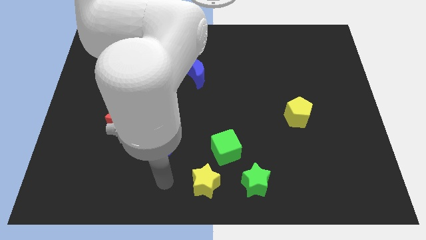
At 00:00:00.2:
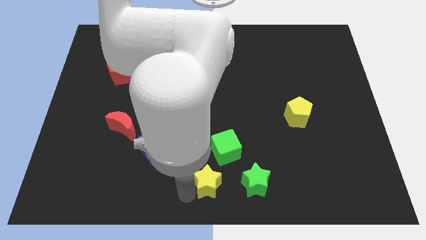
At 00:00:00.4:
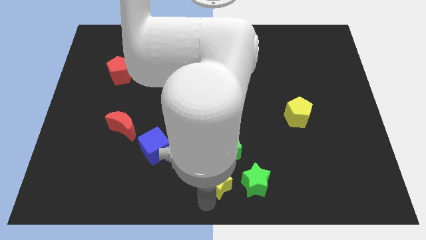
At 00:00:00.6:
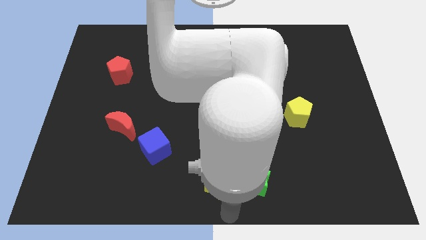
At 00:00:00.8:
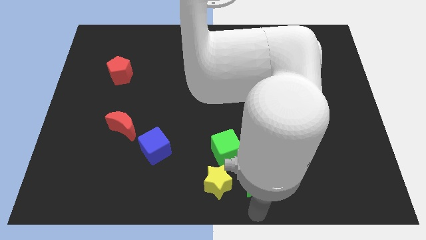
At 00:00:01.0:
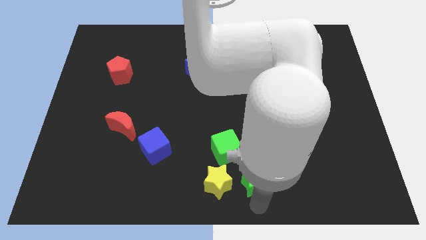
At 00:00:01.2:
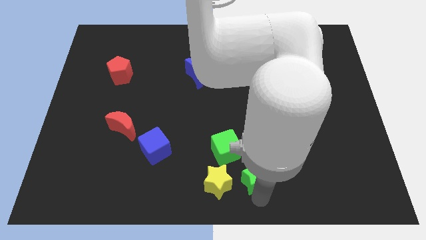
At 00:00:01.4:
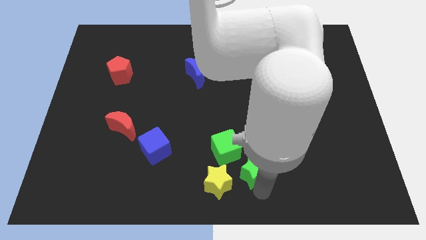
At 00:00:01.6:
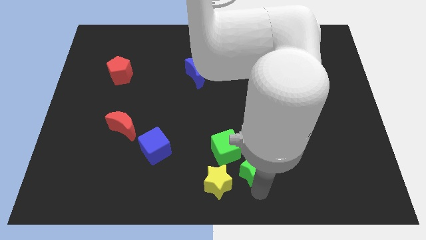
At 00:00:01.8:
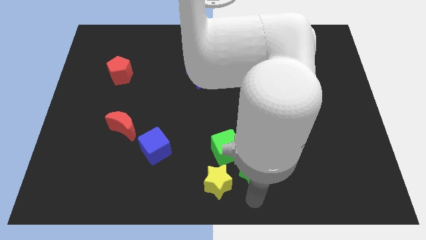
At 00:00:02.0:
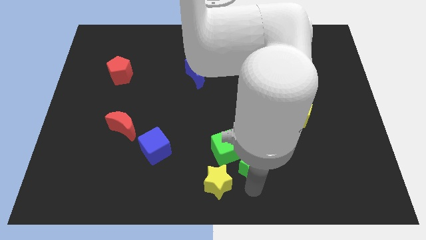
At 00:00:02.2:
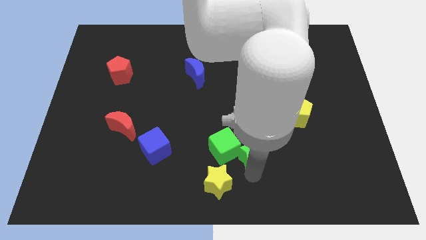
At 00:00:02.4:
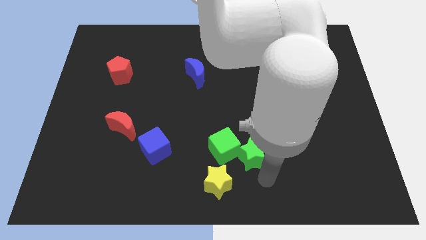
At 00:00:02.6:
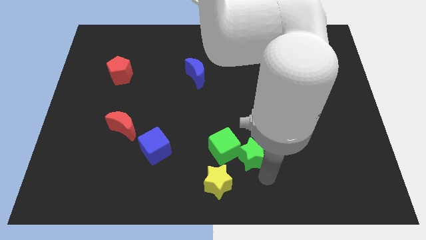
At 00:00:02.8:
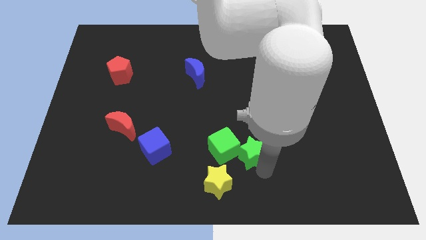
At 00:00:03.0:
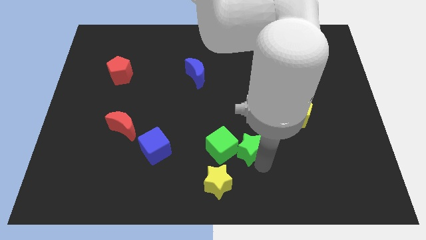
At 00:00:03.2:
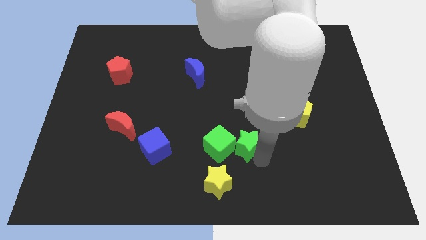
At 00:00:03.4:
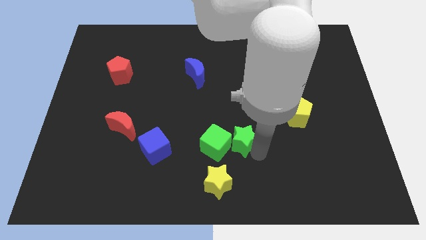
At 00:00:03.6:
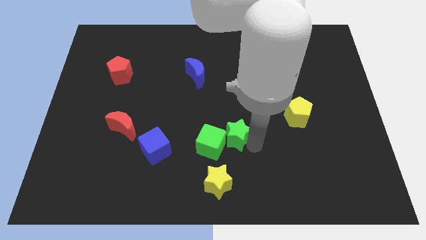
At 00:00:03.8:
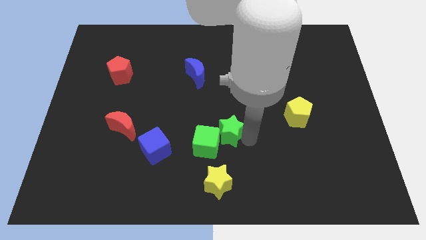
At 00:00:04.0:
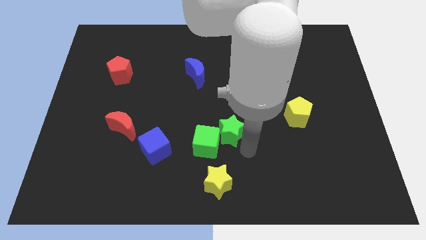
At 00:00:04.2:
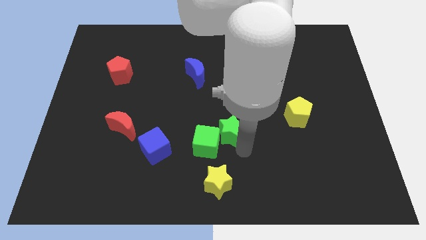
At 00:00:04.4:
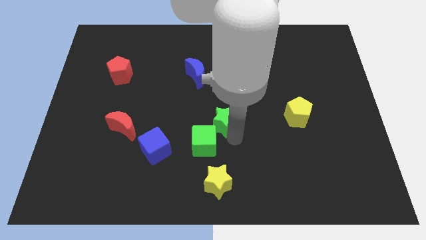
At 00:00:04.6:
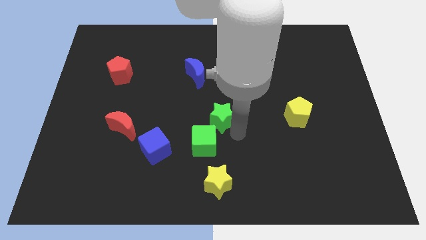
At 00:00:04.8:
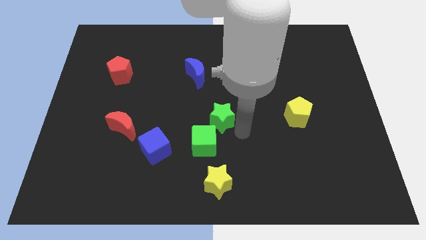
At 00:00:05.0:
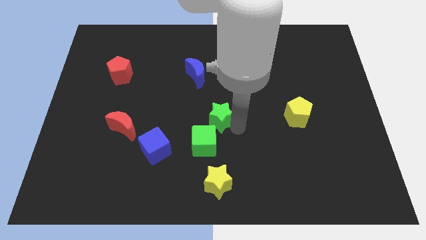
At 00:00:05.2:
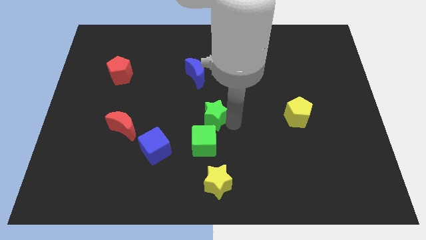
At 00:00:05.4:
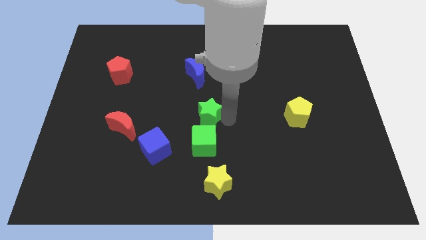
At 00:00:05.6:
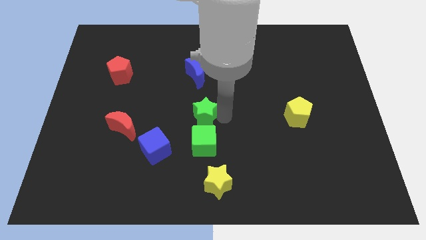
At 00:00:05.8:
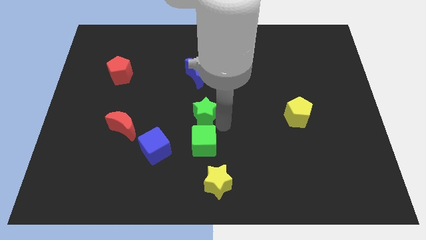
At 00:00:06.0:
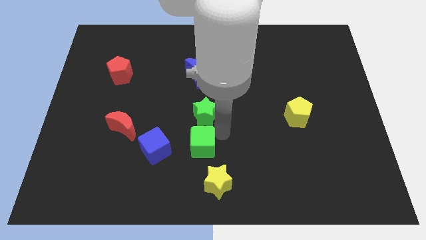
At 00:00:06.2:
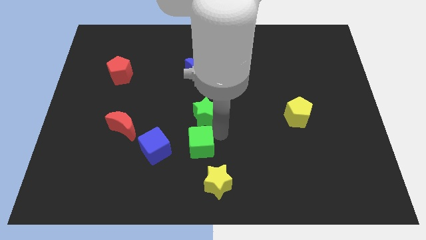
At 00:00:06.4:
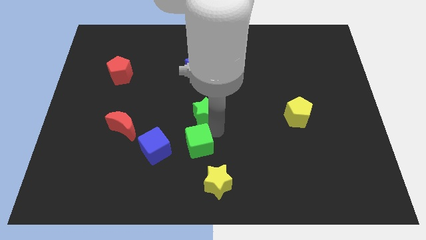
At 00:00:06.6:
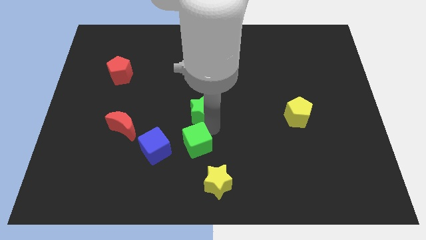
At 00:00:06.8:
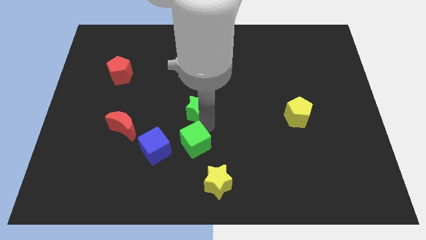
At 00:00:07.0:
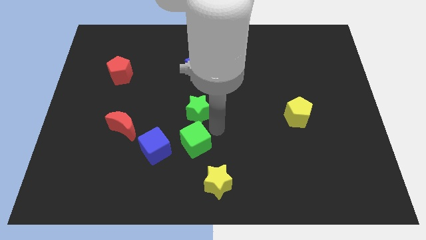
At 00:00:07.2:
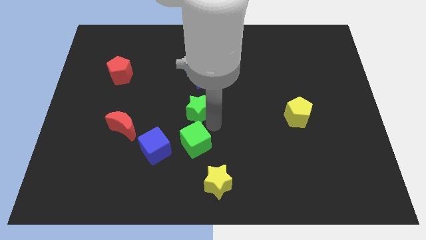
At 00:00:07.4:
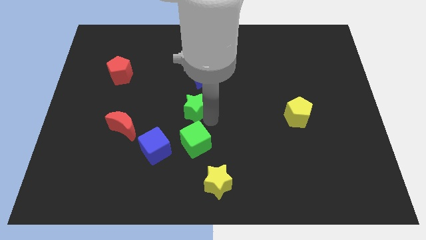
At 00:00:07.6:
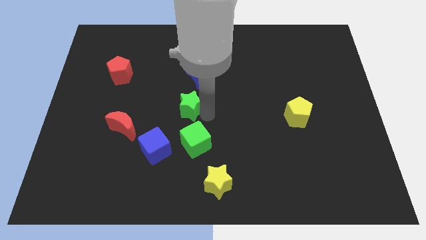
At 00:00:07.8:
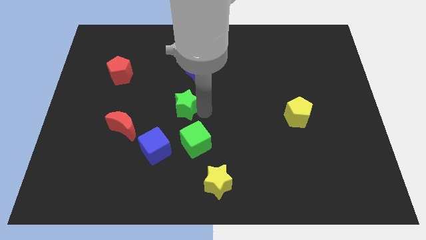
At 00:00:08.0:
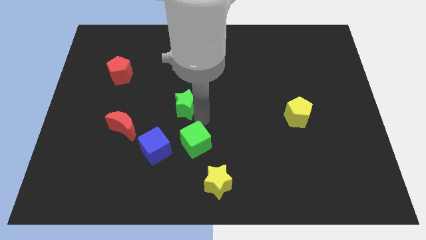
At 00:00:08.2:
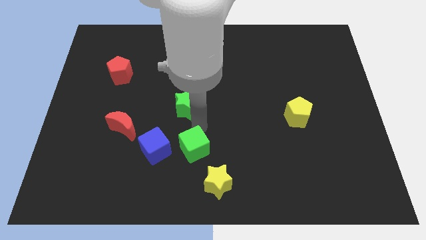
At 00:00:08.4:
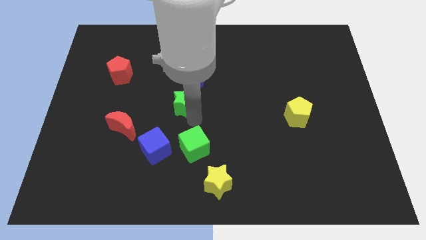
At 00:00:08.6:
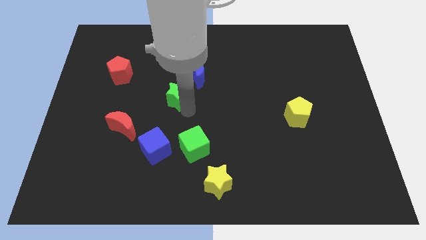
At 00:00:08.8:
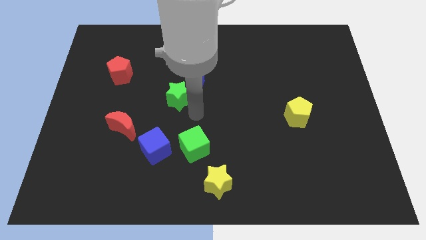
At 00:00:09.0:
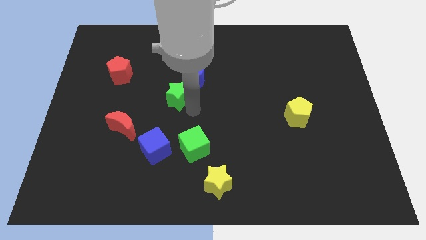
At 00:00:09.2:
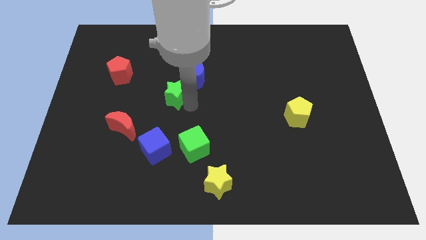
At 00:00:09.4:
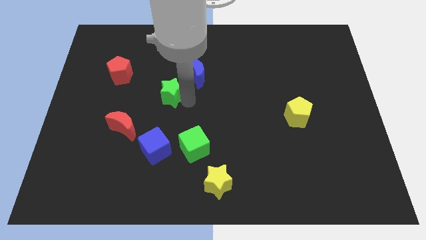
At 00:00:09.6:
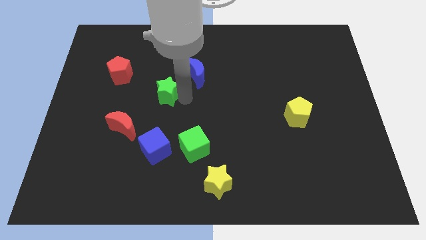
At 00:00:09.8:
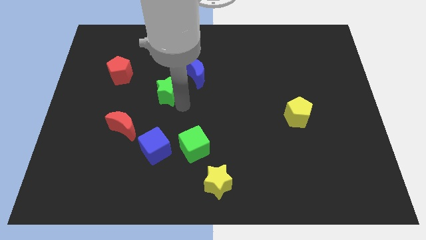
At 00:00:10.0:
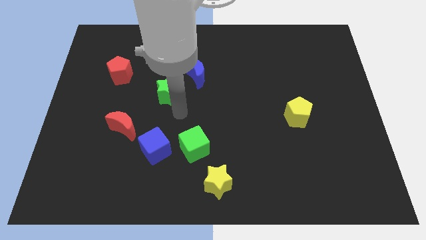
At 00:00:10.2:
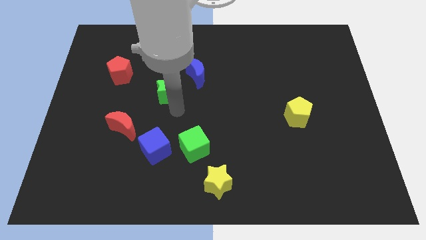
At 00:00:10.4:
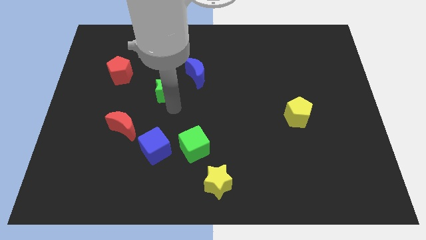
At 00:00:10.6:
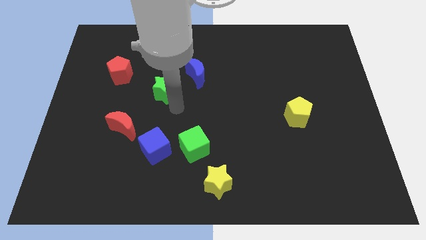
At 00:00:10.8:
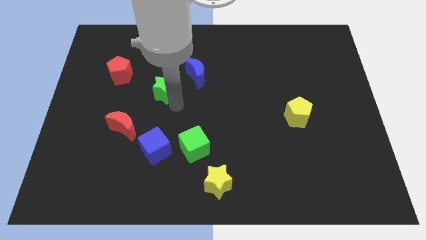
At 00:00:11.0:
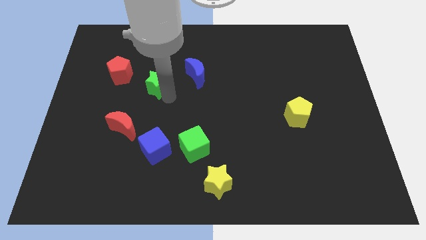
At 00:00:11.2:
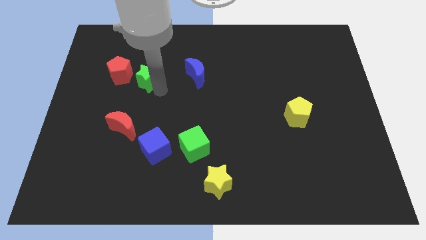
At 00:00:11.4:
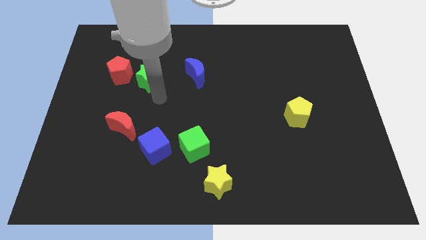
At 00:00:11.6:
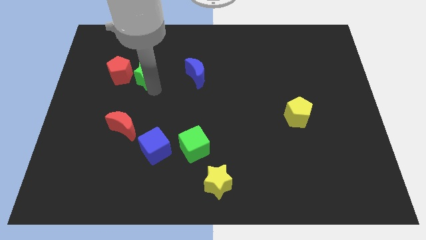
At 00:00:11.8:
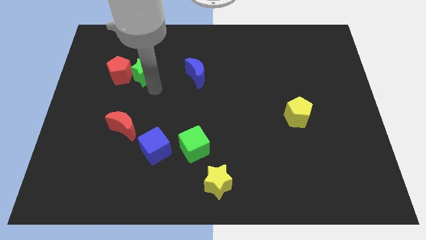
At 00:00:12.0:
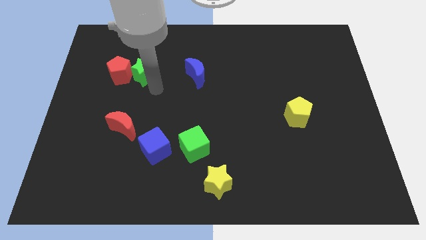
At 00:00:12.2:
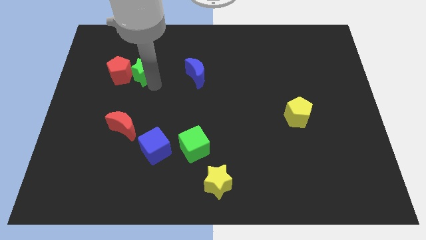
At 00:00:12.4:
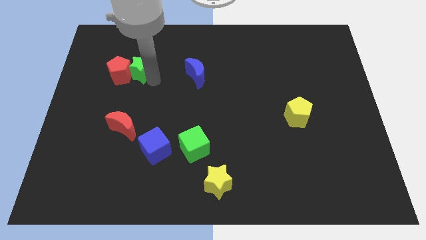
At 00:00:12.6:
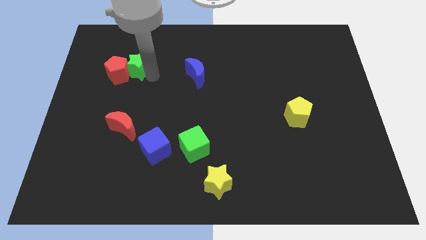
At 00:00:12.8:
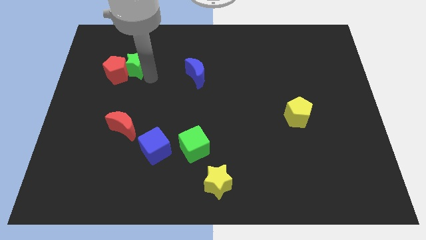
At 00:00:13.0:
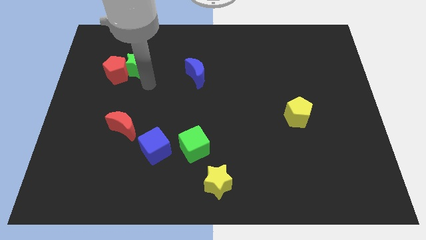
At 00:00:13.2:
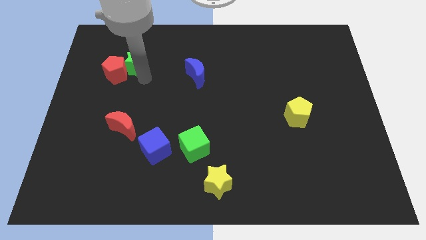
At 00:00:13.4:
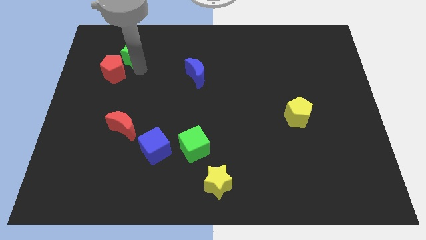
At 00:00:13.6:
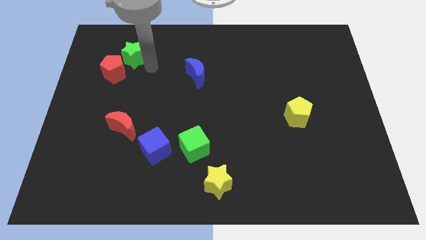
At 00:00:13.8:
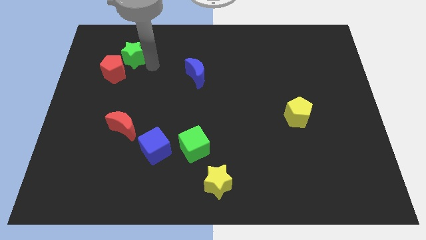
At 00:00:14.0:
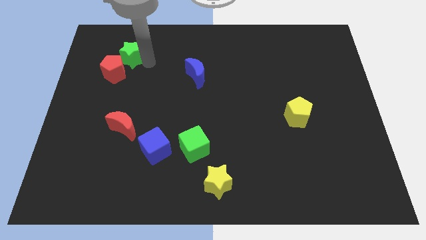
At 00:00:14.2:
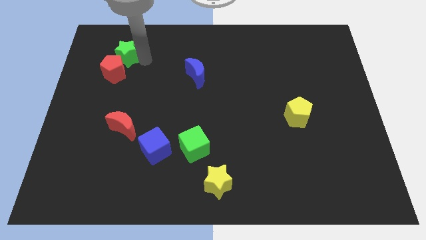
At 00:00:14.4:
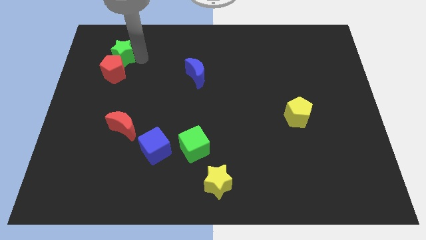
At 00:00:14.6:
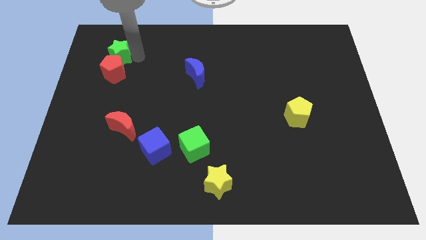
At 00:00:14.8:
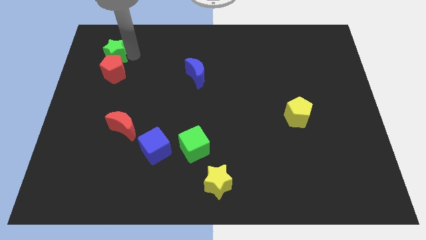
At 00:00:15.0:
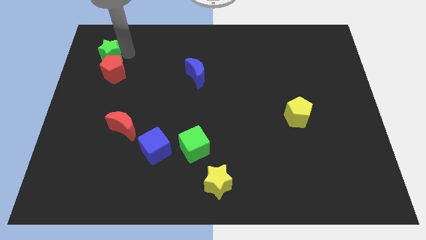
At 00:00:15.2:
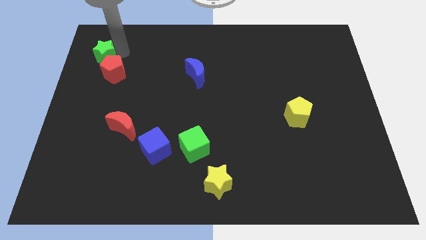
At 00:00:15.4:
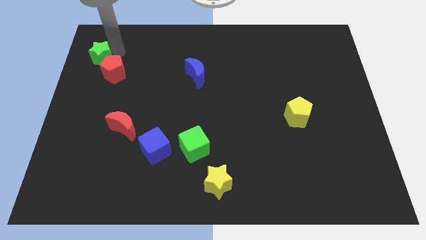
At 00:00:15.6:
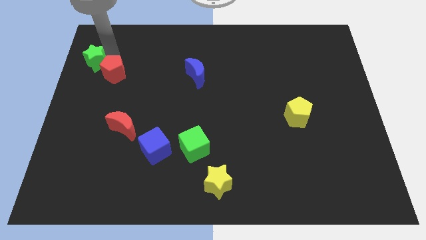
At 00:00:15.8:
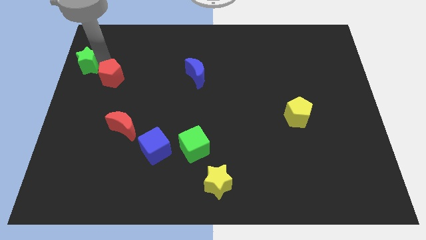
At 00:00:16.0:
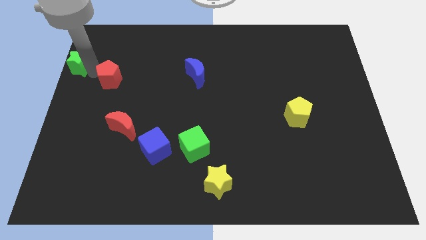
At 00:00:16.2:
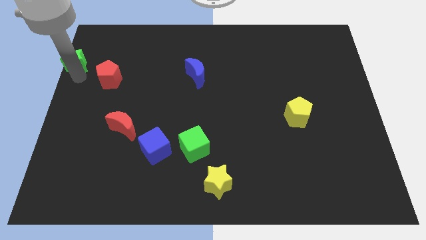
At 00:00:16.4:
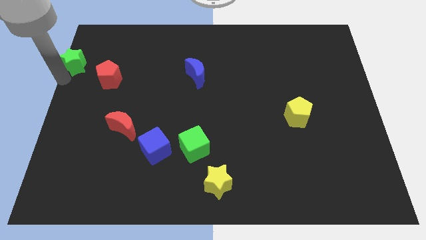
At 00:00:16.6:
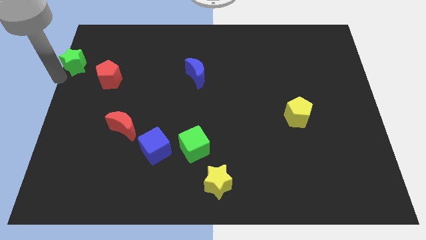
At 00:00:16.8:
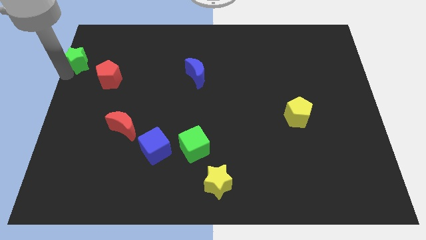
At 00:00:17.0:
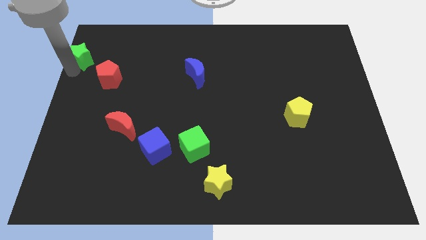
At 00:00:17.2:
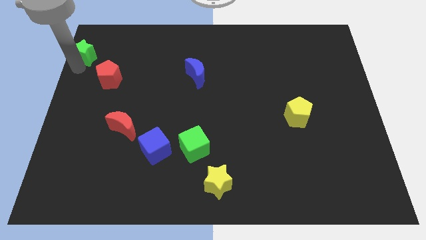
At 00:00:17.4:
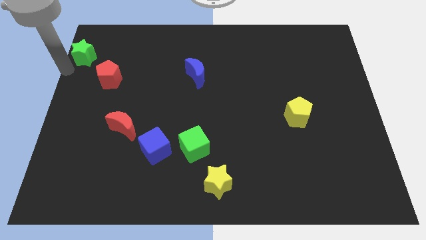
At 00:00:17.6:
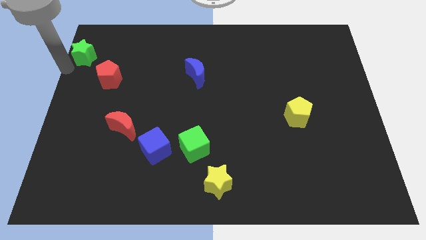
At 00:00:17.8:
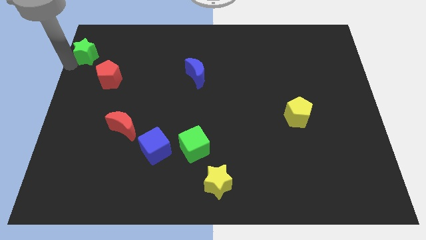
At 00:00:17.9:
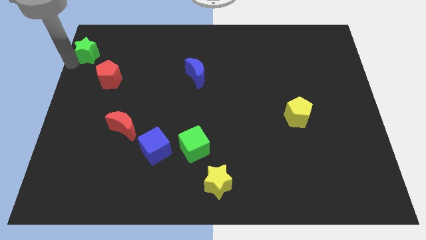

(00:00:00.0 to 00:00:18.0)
push the green star to the top left corner
